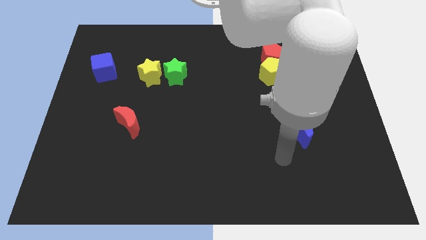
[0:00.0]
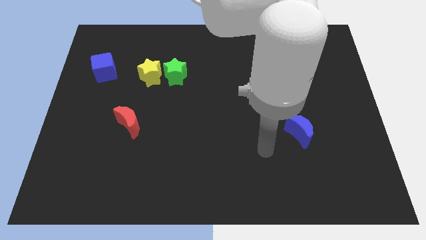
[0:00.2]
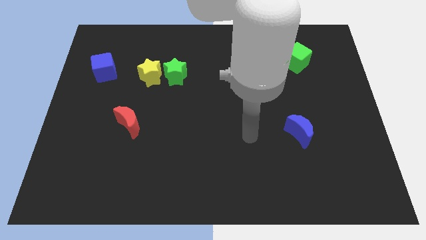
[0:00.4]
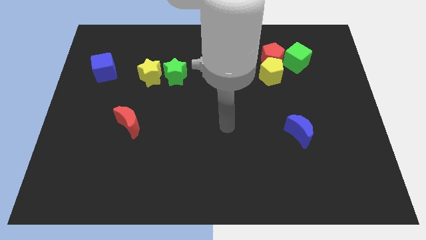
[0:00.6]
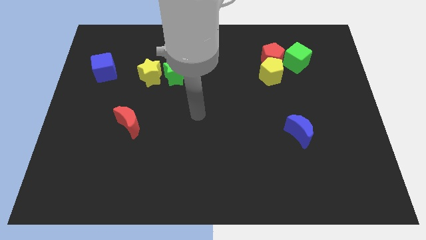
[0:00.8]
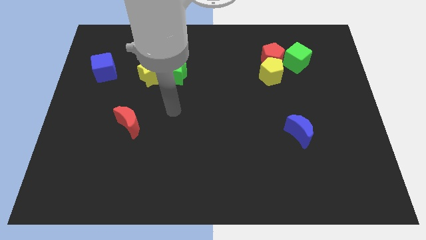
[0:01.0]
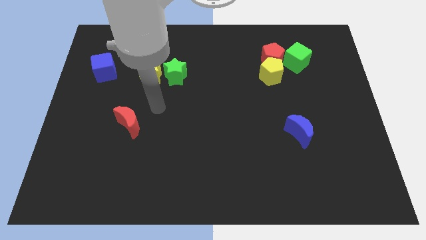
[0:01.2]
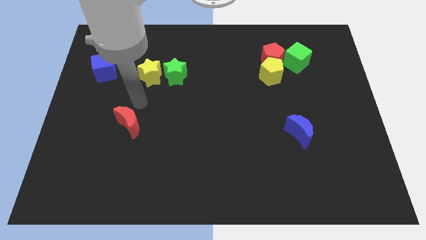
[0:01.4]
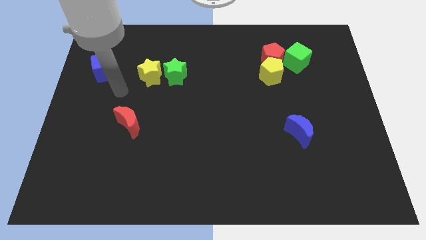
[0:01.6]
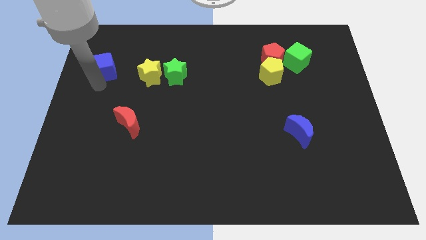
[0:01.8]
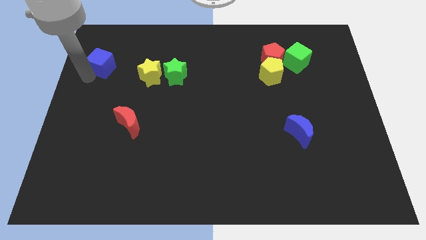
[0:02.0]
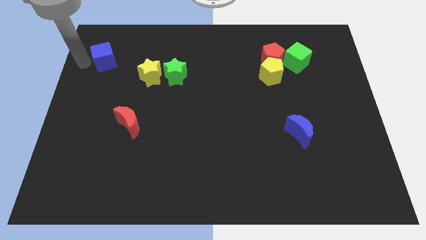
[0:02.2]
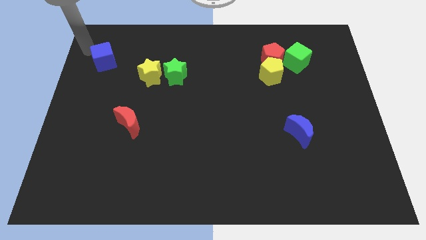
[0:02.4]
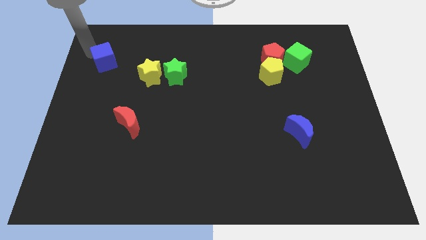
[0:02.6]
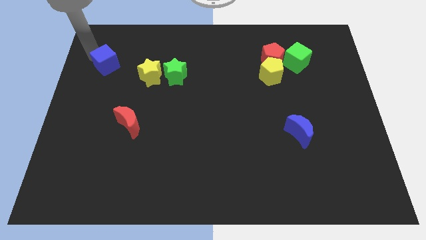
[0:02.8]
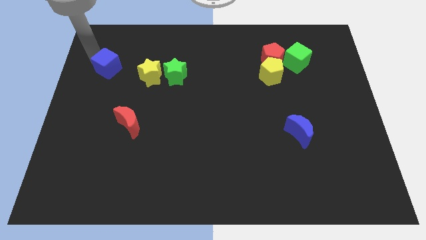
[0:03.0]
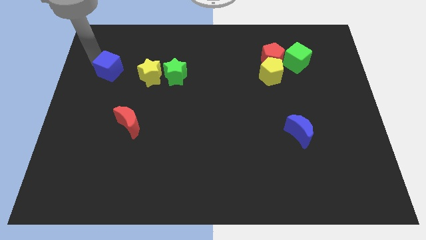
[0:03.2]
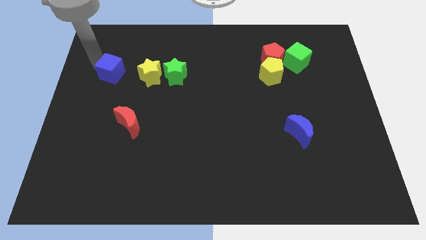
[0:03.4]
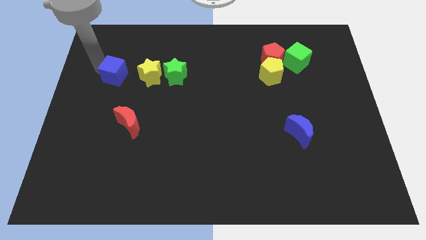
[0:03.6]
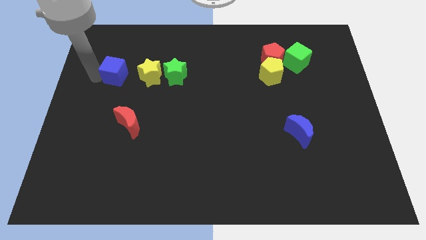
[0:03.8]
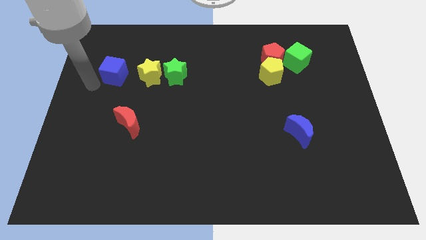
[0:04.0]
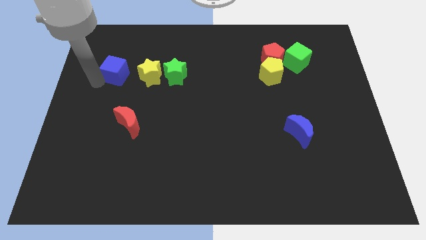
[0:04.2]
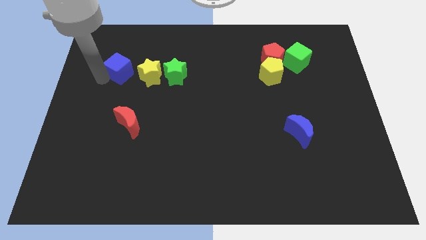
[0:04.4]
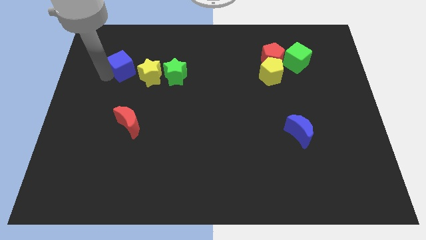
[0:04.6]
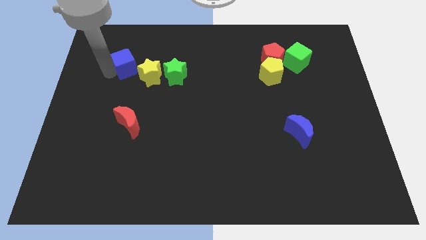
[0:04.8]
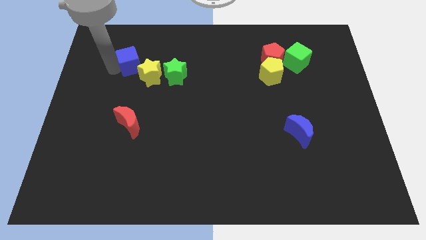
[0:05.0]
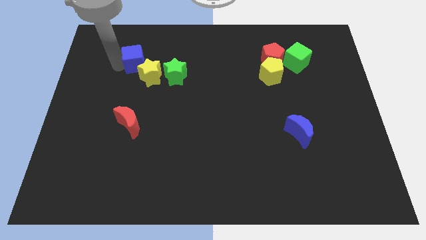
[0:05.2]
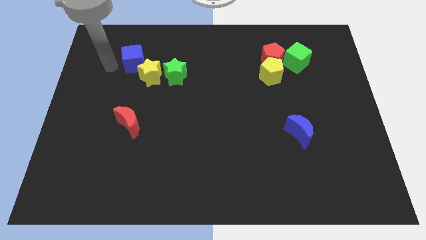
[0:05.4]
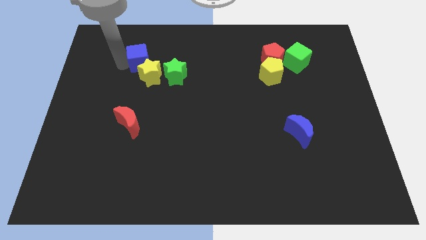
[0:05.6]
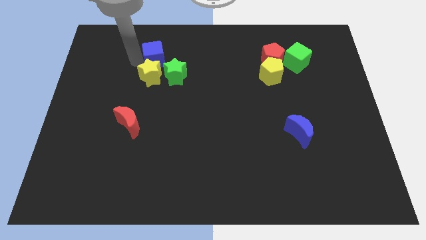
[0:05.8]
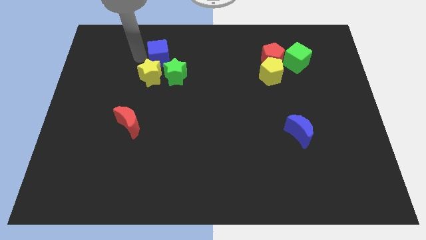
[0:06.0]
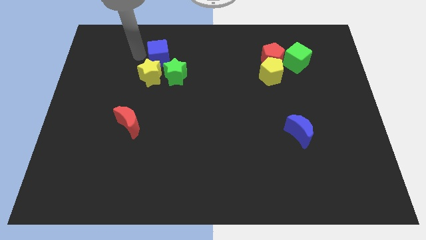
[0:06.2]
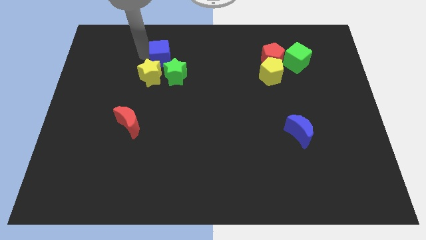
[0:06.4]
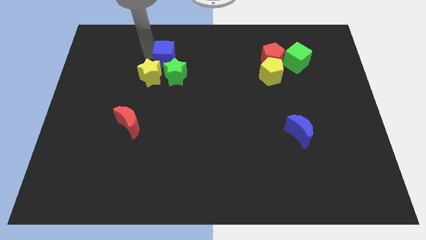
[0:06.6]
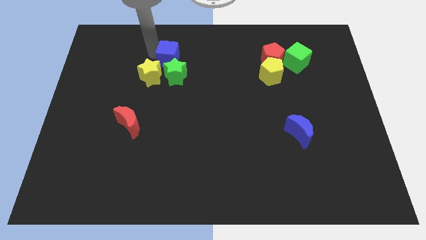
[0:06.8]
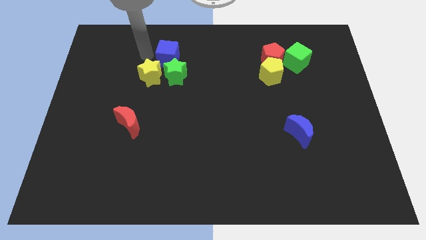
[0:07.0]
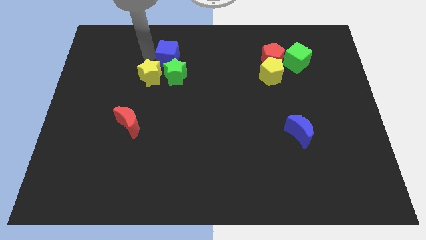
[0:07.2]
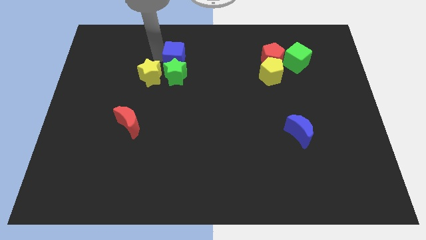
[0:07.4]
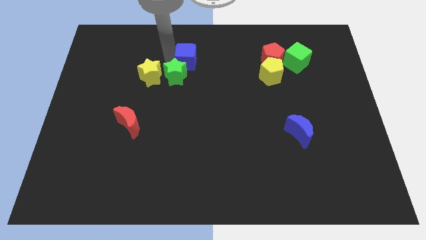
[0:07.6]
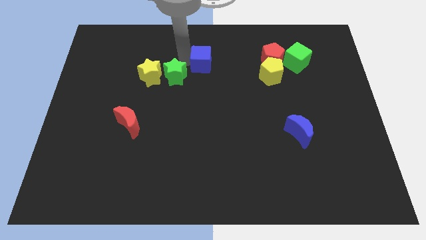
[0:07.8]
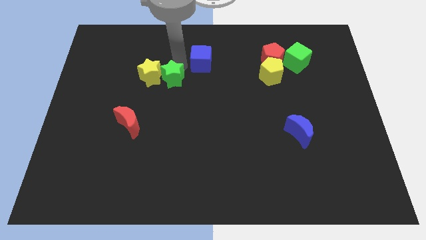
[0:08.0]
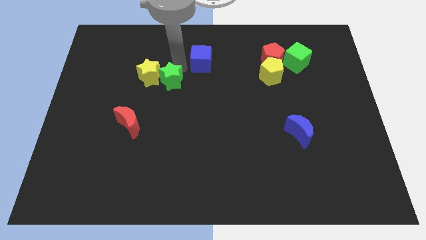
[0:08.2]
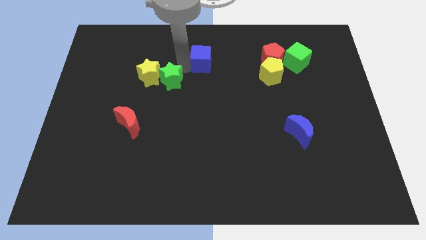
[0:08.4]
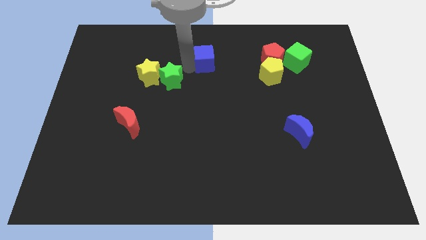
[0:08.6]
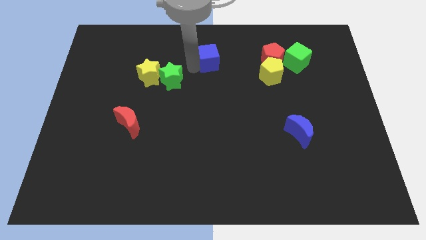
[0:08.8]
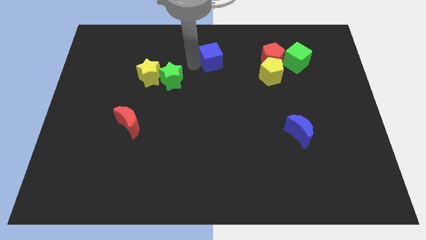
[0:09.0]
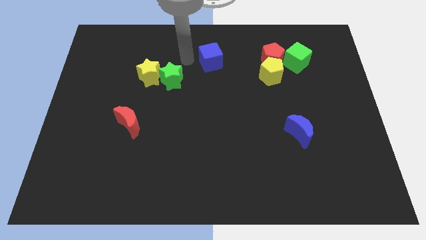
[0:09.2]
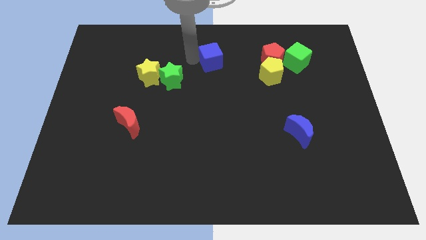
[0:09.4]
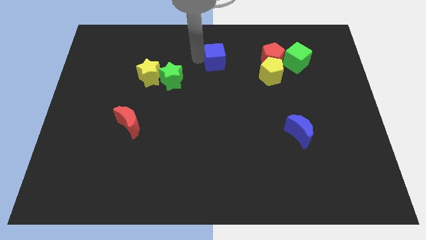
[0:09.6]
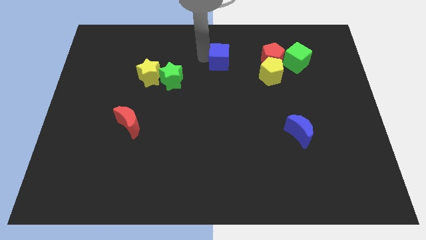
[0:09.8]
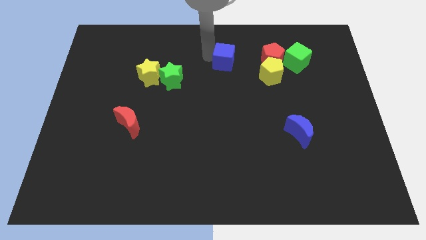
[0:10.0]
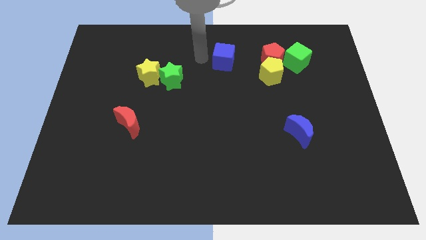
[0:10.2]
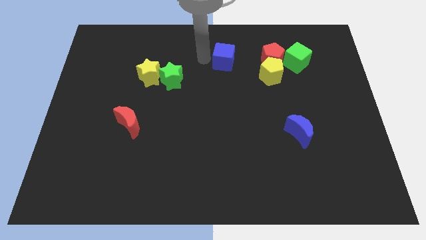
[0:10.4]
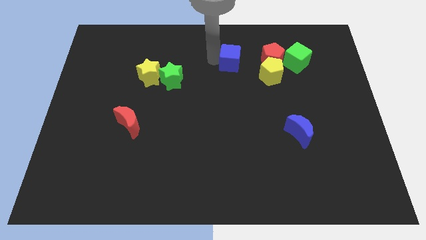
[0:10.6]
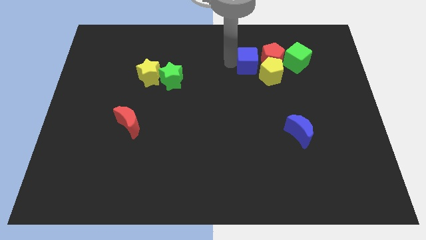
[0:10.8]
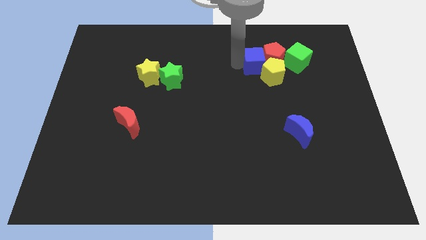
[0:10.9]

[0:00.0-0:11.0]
put the blue cube towards the red pentagon
